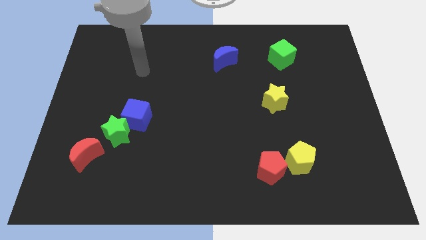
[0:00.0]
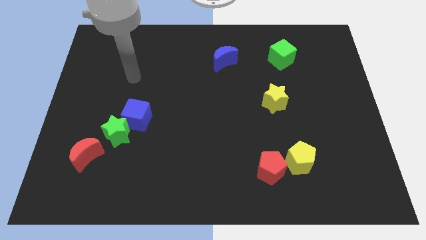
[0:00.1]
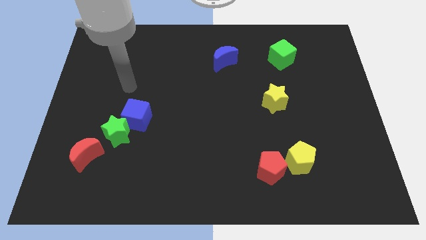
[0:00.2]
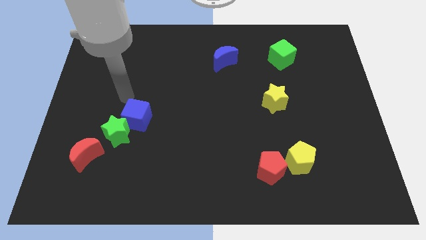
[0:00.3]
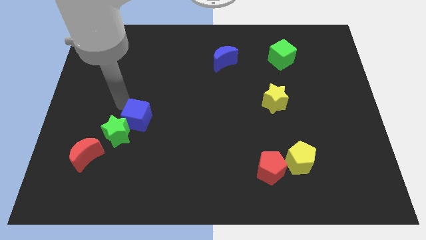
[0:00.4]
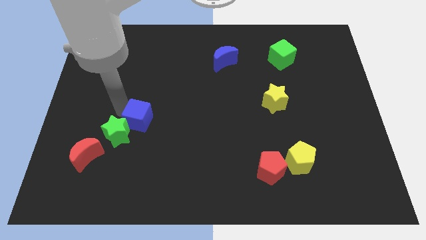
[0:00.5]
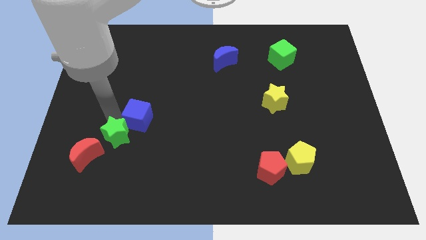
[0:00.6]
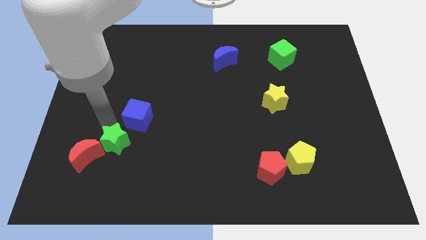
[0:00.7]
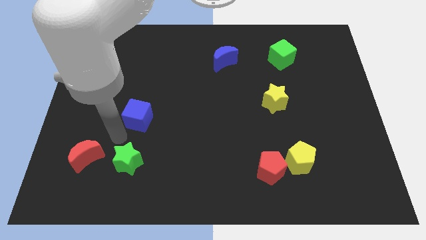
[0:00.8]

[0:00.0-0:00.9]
pull the blue cube apart from the green star

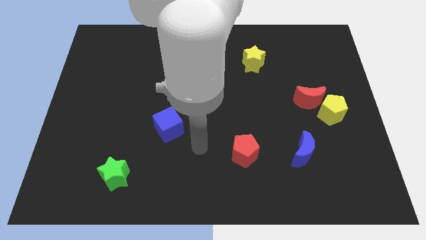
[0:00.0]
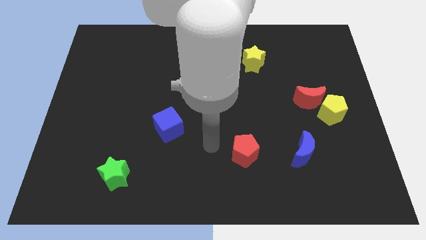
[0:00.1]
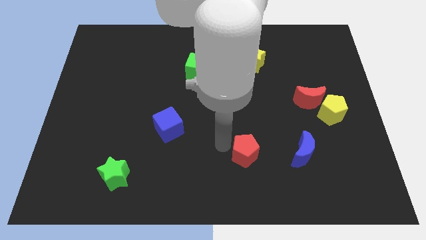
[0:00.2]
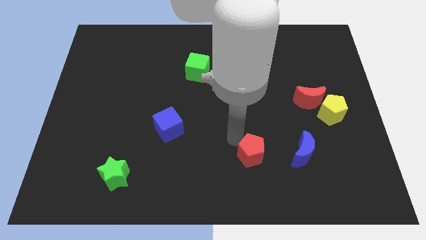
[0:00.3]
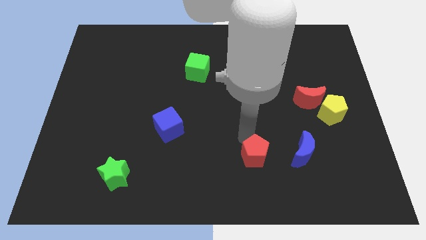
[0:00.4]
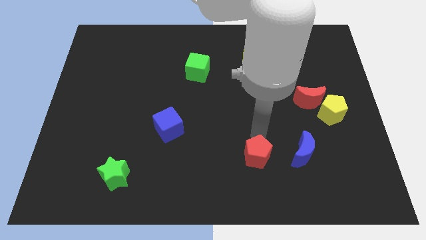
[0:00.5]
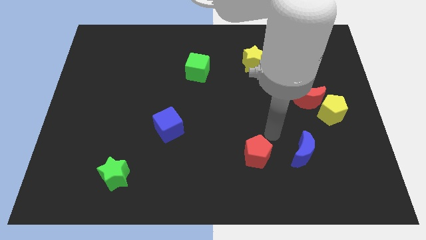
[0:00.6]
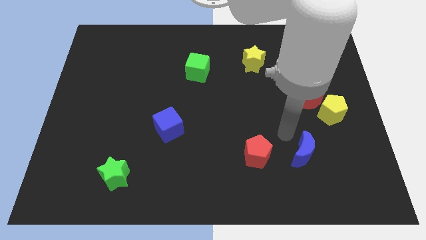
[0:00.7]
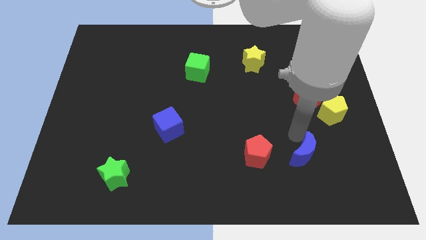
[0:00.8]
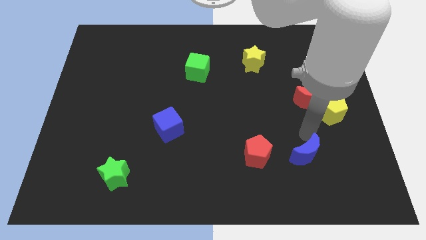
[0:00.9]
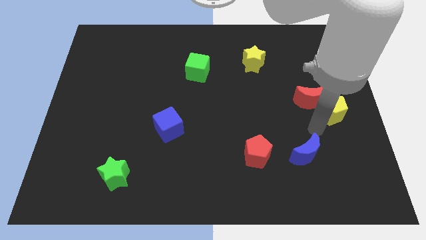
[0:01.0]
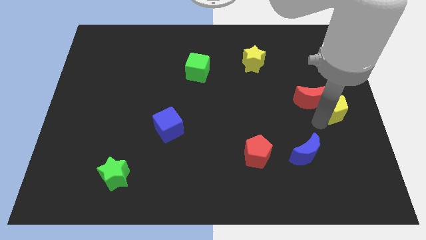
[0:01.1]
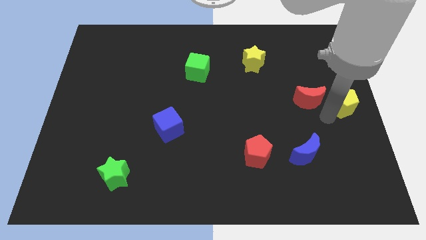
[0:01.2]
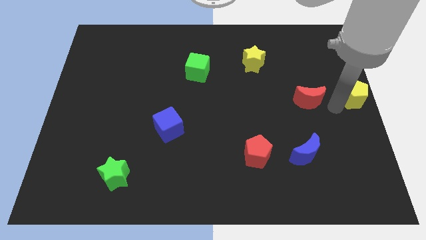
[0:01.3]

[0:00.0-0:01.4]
pull the red moon apart from the yellow pentagon

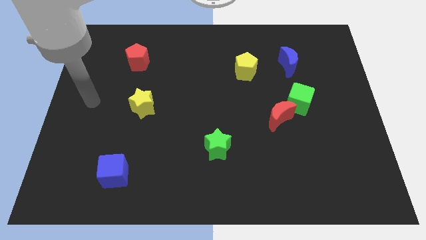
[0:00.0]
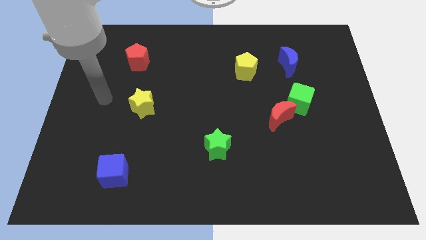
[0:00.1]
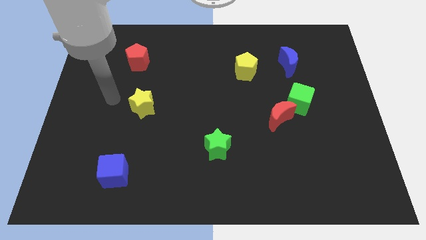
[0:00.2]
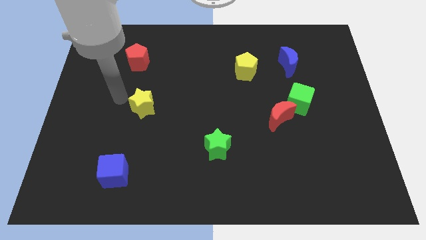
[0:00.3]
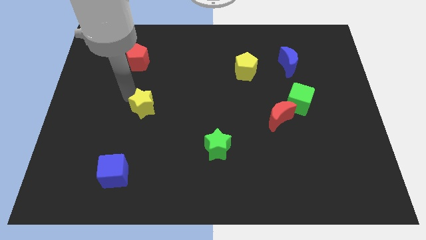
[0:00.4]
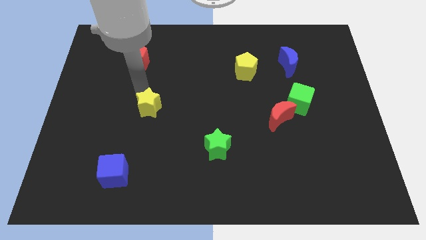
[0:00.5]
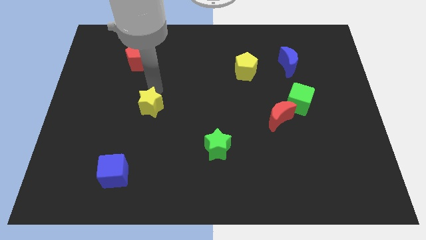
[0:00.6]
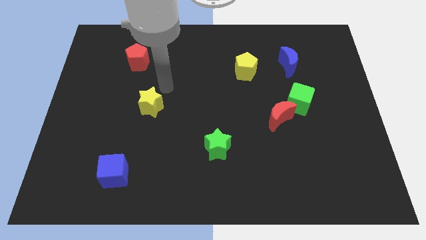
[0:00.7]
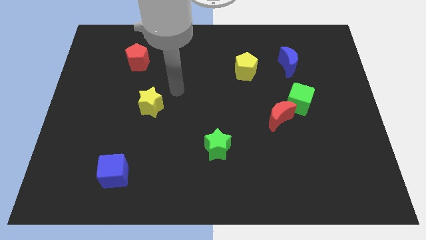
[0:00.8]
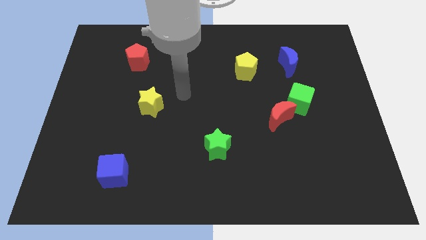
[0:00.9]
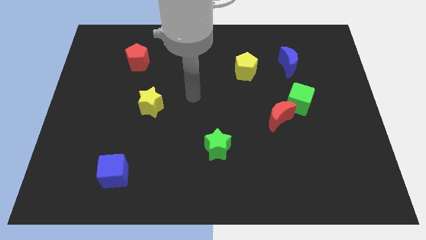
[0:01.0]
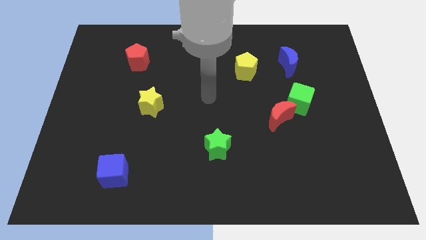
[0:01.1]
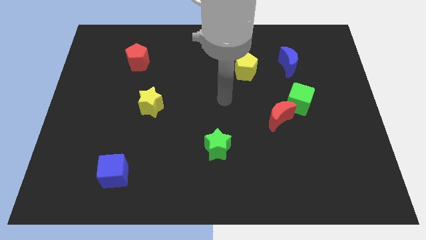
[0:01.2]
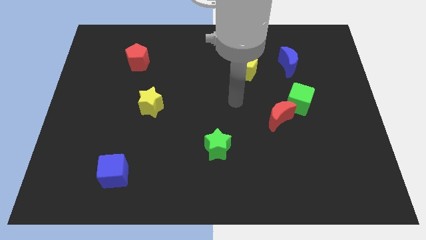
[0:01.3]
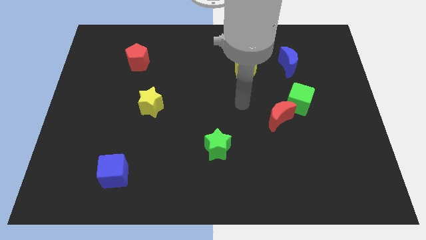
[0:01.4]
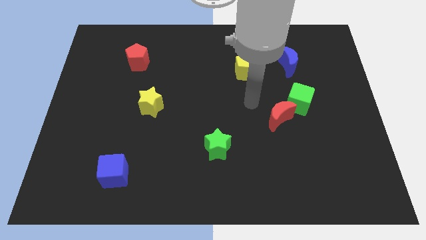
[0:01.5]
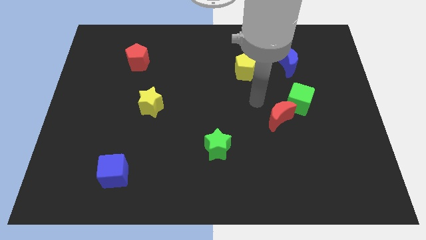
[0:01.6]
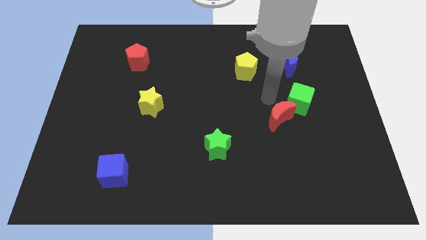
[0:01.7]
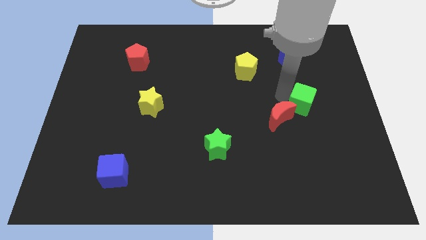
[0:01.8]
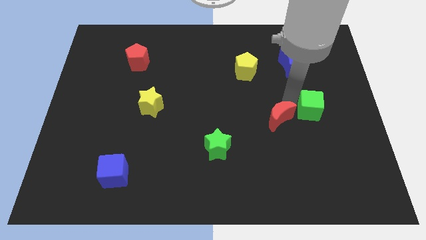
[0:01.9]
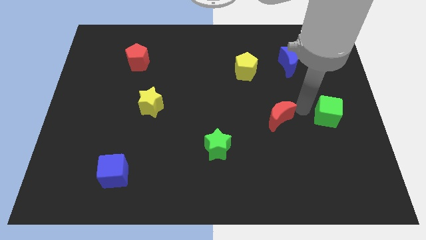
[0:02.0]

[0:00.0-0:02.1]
pull the red moon apart from the green cube

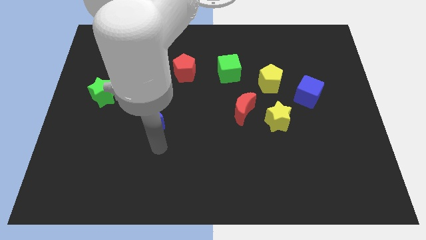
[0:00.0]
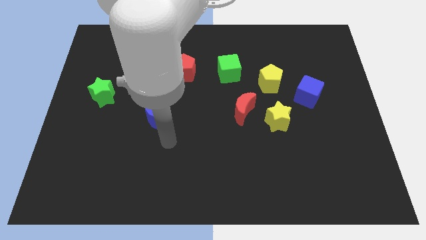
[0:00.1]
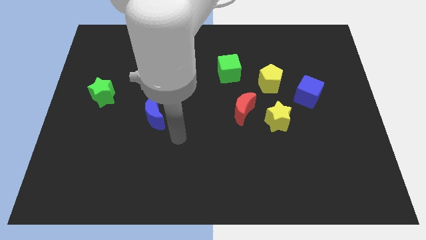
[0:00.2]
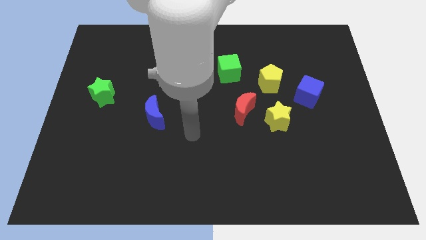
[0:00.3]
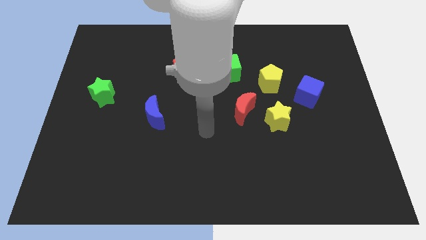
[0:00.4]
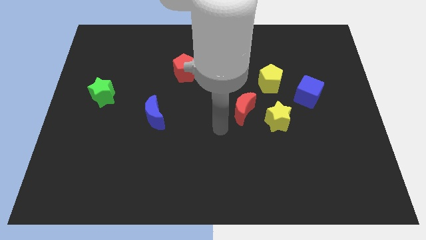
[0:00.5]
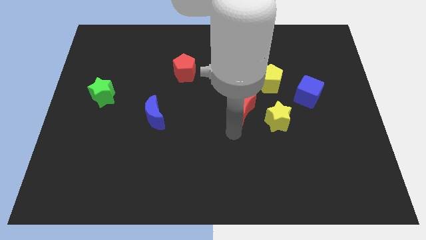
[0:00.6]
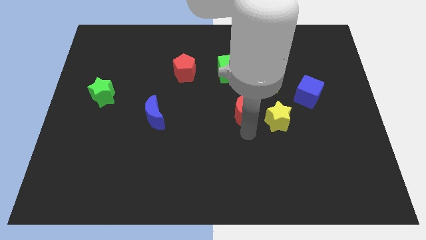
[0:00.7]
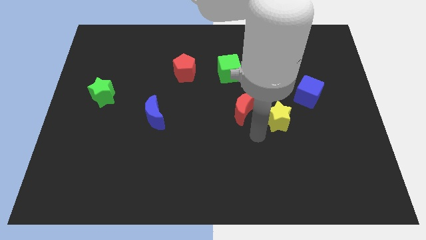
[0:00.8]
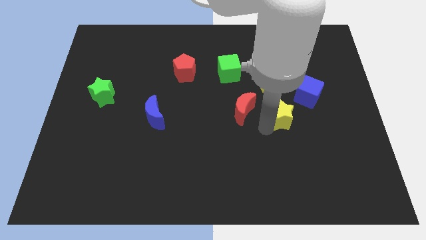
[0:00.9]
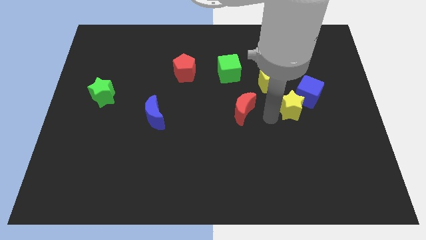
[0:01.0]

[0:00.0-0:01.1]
pull the red moon apart from the yellow star

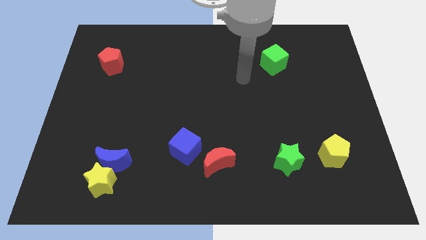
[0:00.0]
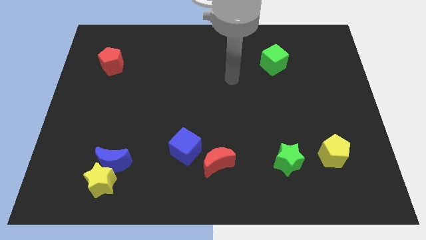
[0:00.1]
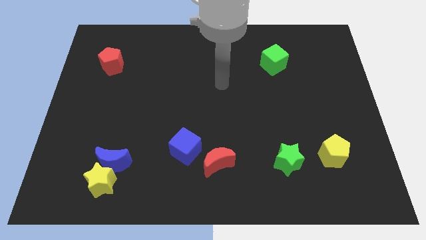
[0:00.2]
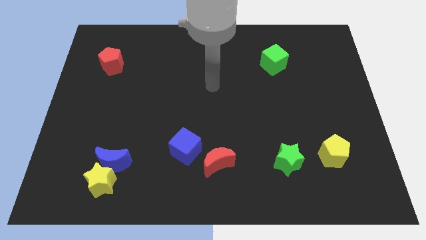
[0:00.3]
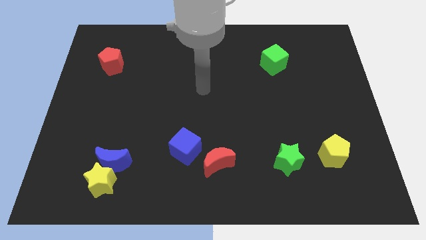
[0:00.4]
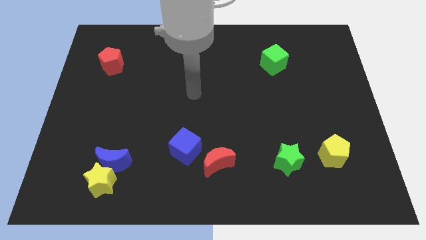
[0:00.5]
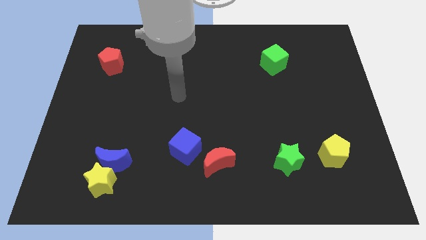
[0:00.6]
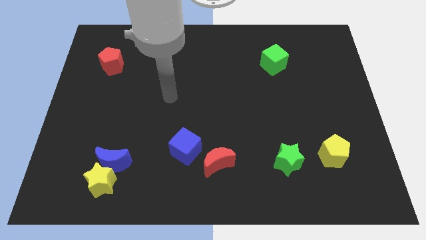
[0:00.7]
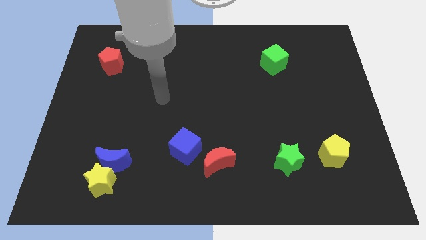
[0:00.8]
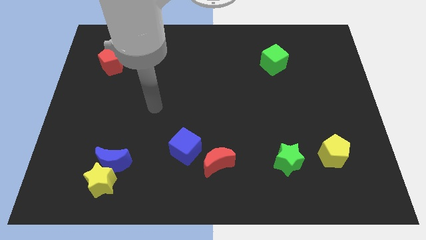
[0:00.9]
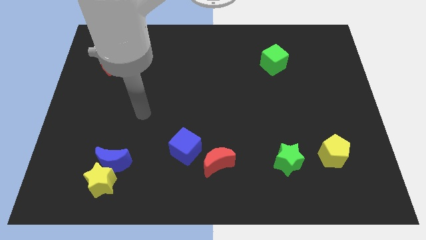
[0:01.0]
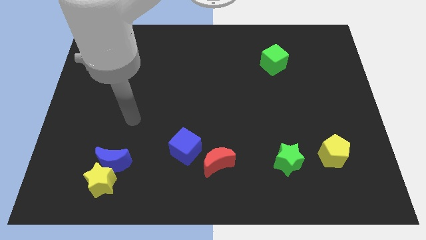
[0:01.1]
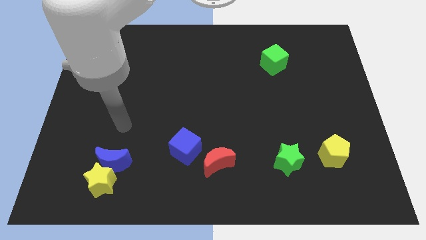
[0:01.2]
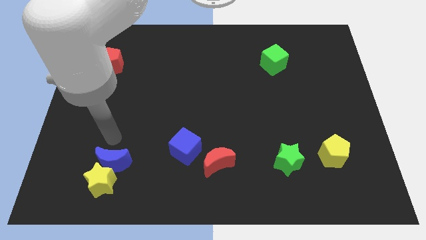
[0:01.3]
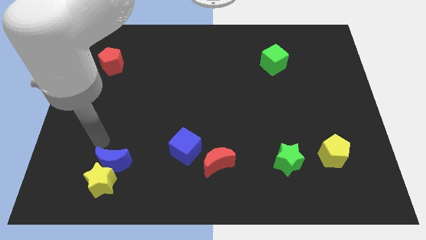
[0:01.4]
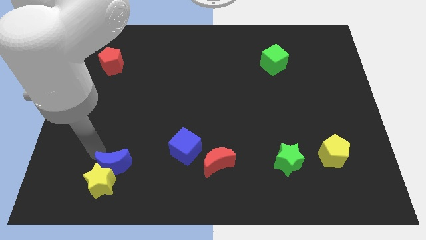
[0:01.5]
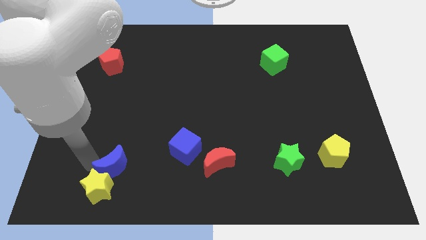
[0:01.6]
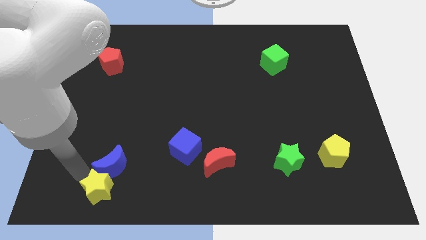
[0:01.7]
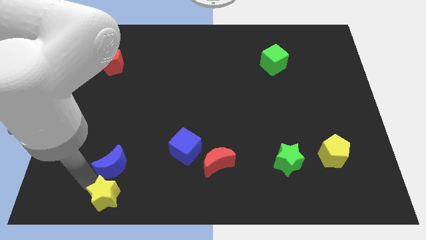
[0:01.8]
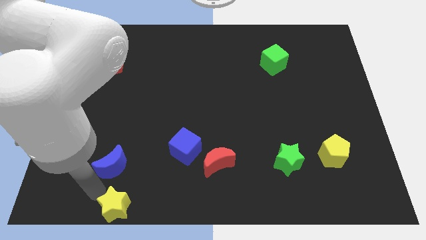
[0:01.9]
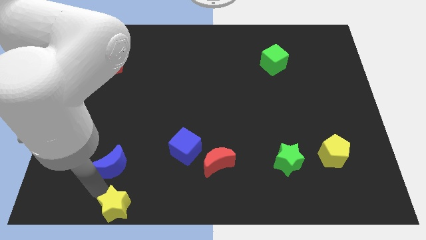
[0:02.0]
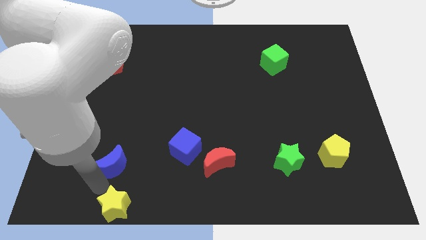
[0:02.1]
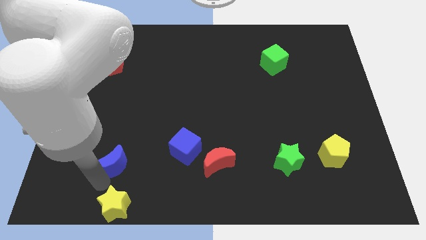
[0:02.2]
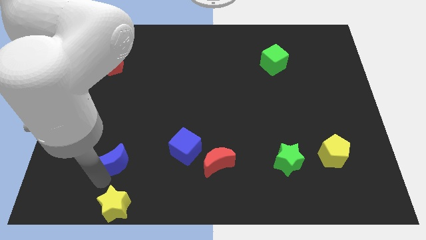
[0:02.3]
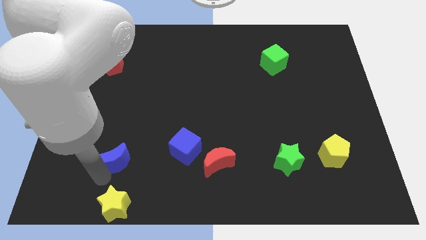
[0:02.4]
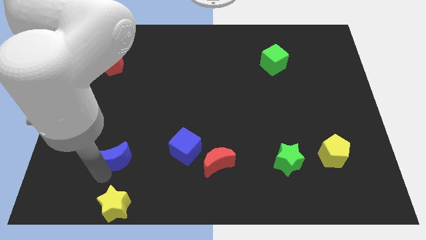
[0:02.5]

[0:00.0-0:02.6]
pull the blue moon apart from the yellow star

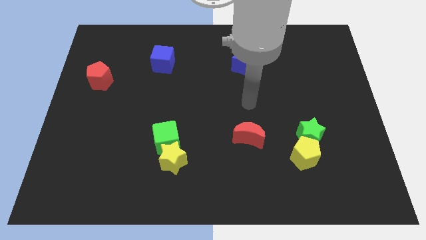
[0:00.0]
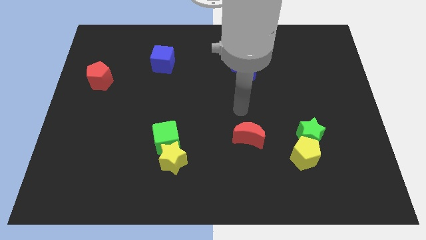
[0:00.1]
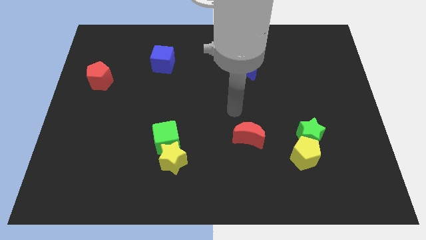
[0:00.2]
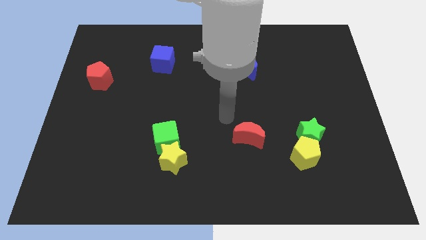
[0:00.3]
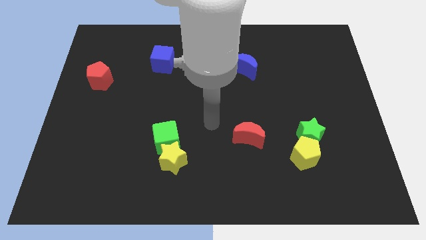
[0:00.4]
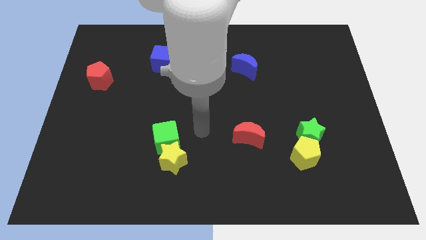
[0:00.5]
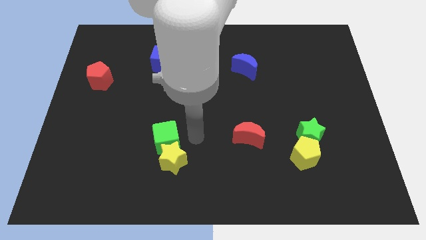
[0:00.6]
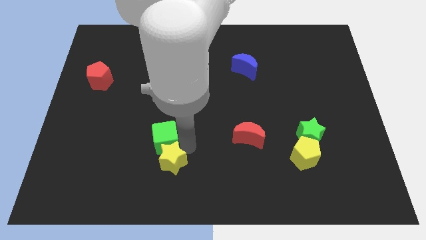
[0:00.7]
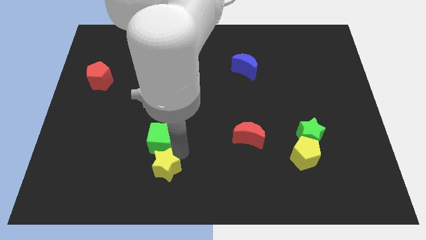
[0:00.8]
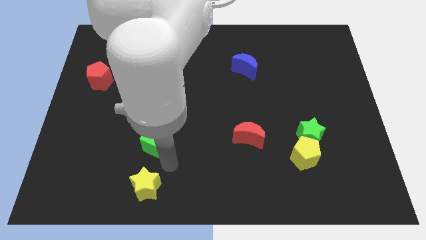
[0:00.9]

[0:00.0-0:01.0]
separate the green cube from the yellow star

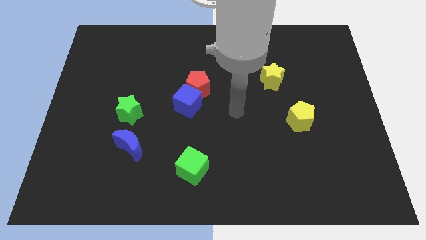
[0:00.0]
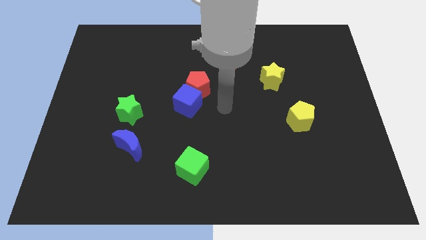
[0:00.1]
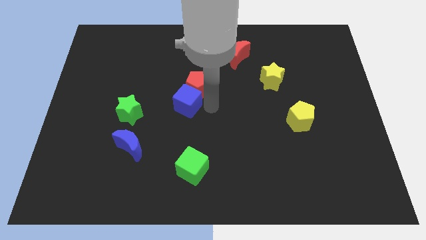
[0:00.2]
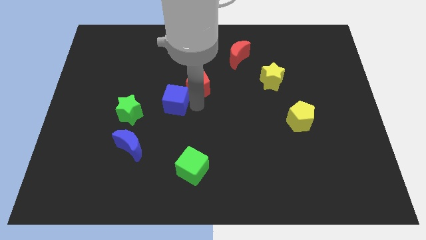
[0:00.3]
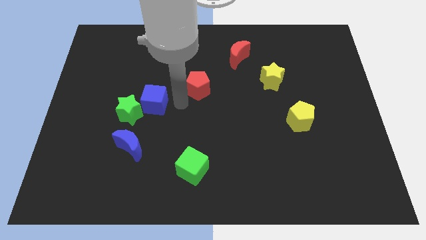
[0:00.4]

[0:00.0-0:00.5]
move the red pentagon away from the blue cube
